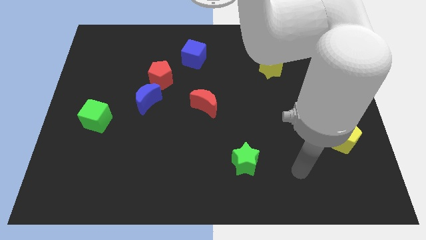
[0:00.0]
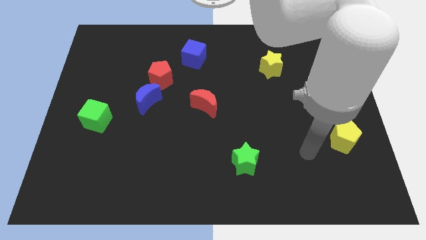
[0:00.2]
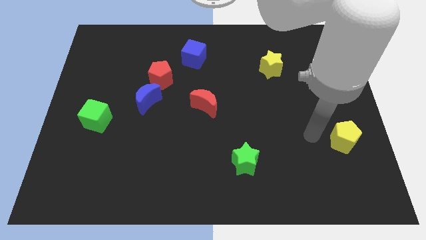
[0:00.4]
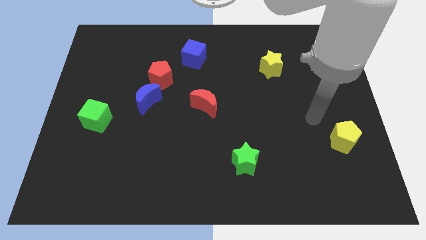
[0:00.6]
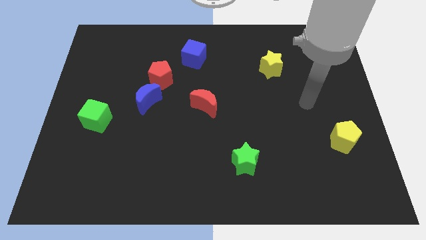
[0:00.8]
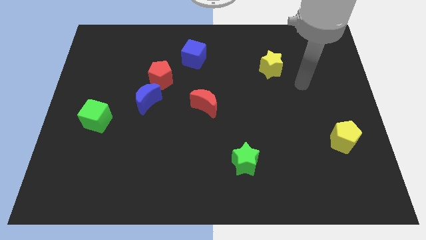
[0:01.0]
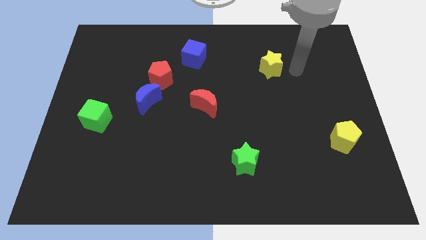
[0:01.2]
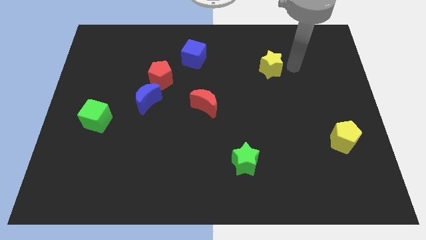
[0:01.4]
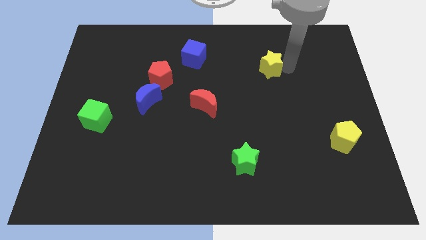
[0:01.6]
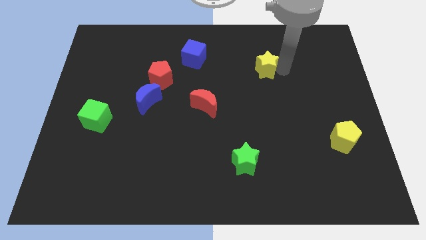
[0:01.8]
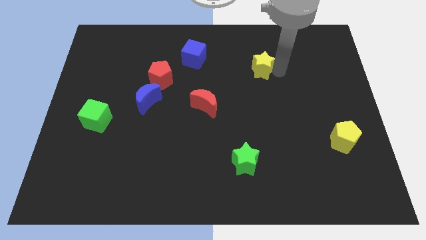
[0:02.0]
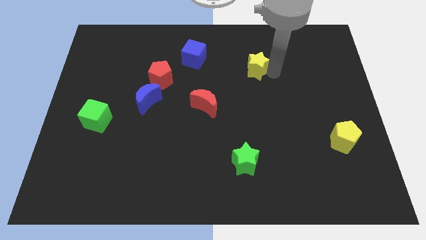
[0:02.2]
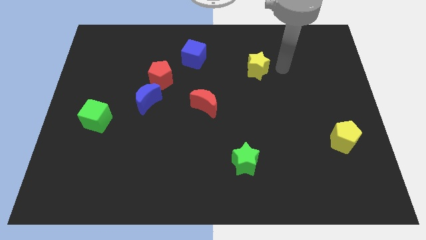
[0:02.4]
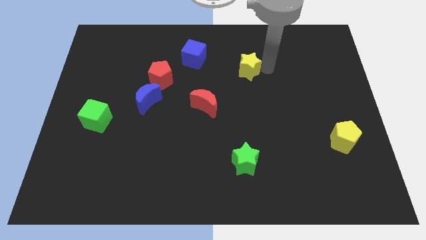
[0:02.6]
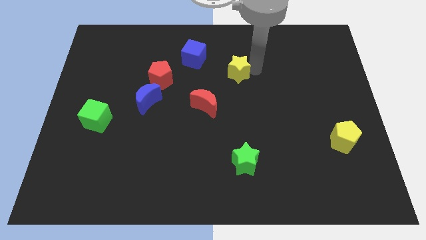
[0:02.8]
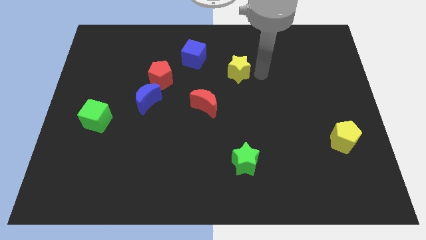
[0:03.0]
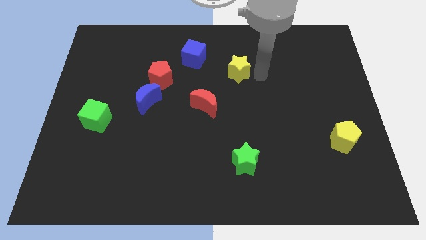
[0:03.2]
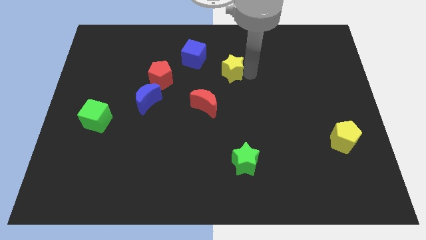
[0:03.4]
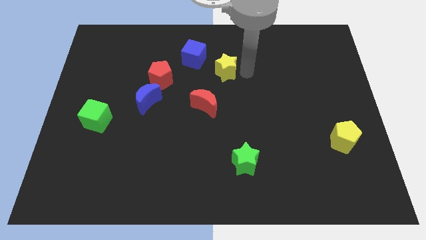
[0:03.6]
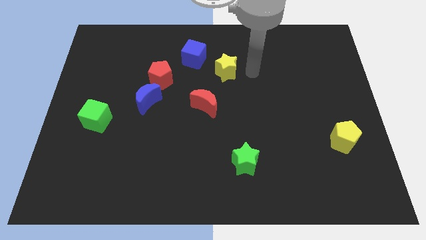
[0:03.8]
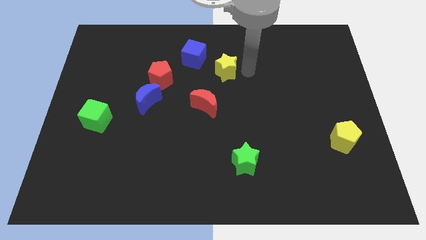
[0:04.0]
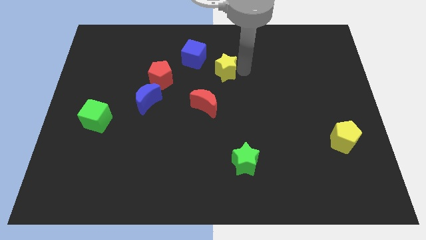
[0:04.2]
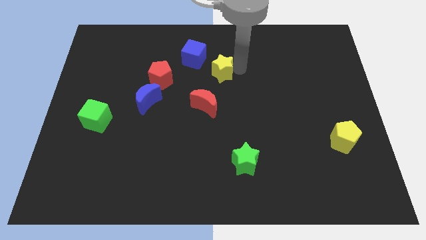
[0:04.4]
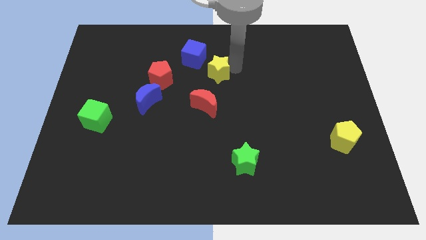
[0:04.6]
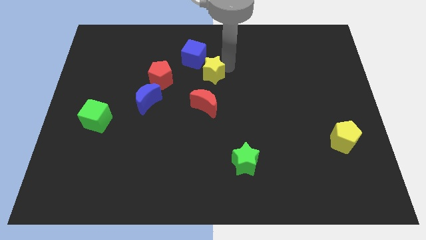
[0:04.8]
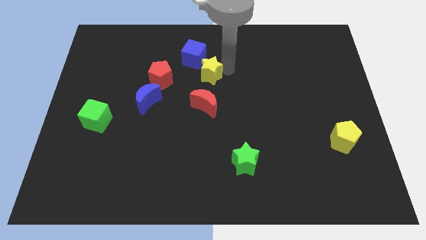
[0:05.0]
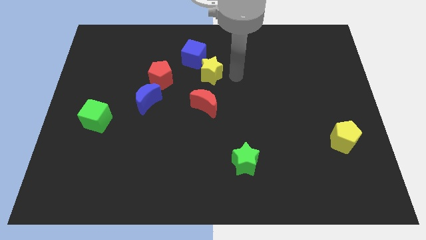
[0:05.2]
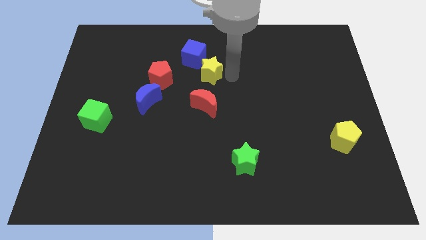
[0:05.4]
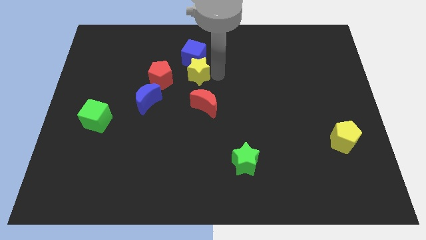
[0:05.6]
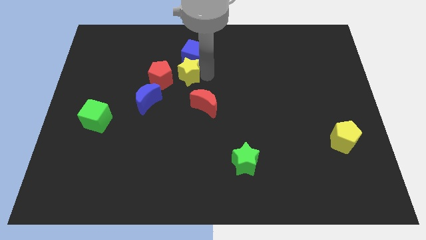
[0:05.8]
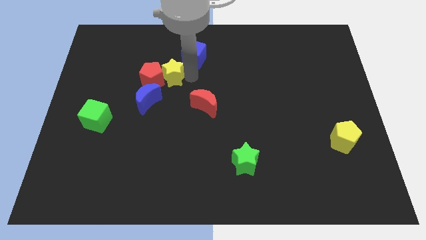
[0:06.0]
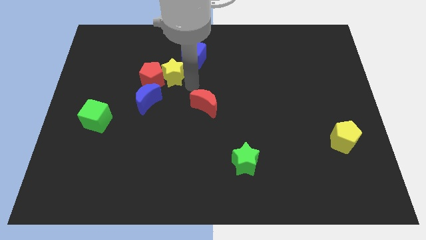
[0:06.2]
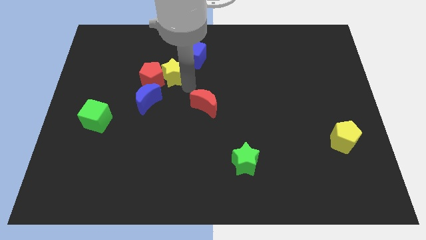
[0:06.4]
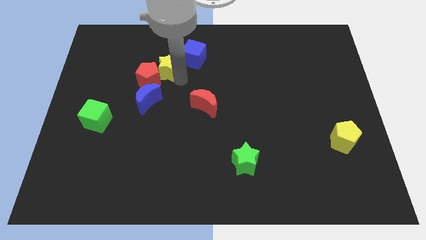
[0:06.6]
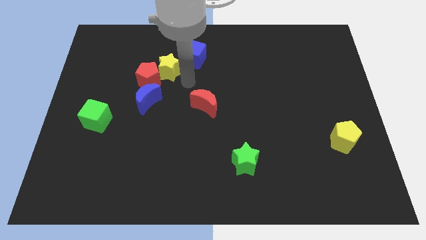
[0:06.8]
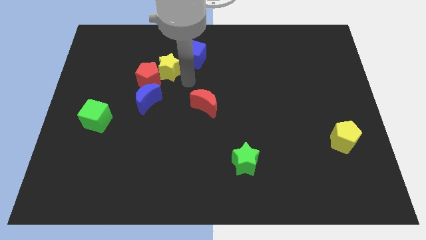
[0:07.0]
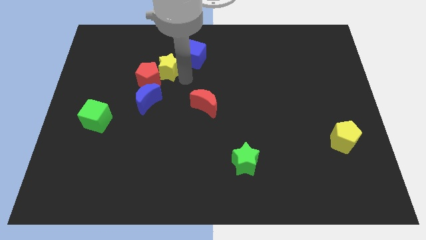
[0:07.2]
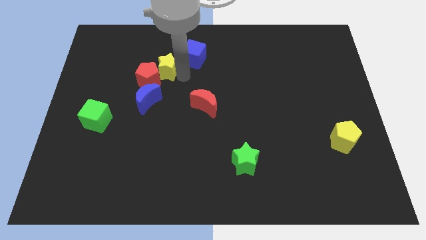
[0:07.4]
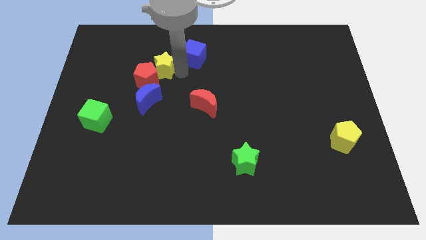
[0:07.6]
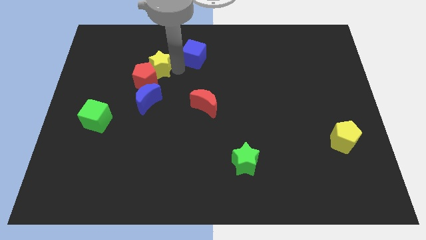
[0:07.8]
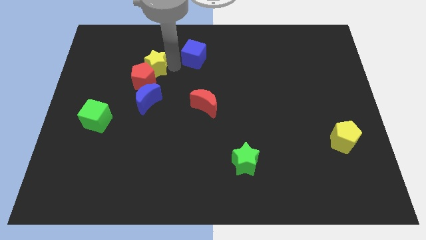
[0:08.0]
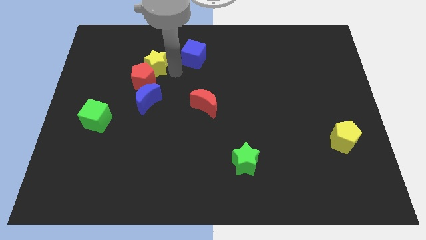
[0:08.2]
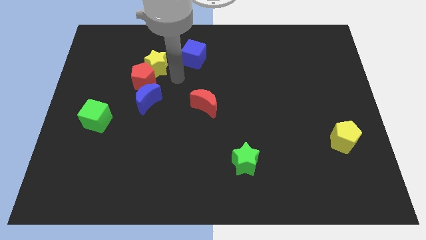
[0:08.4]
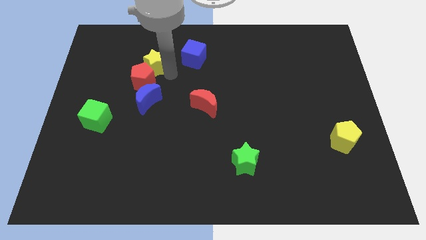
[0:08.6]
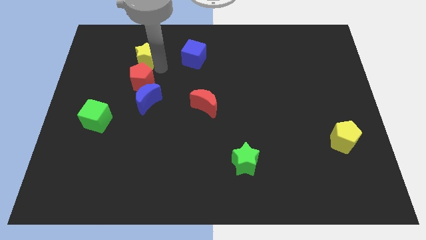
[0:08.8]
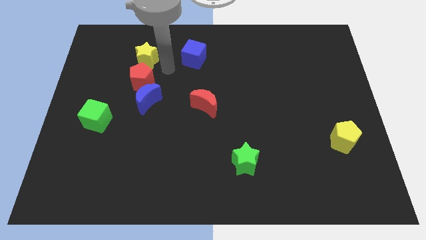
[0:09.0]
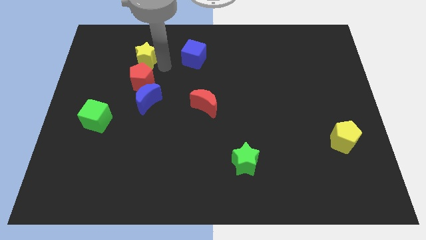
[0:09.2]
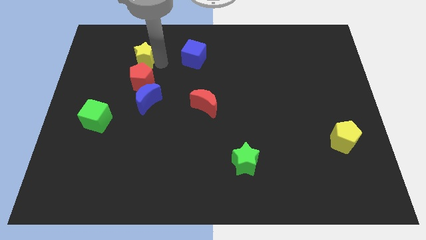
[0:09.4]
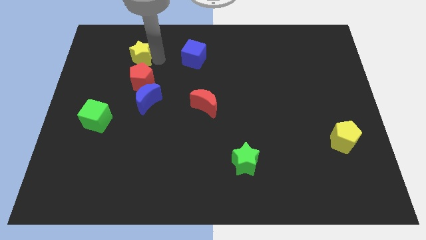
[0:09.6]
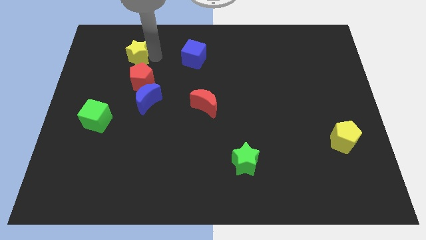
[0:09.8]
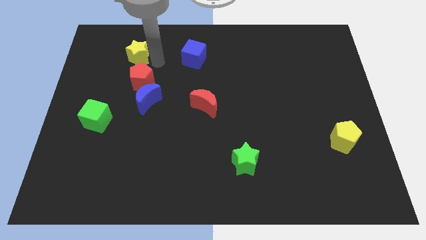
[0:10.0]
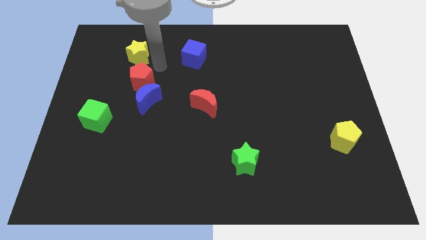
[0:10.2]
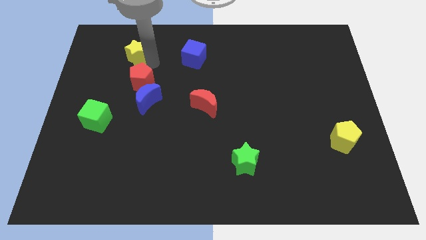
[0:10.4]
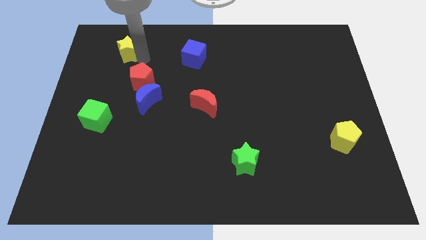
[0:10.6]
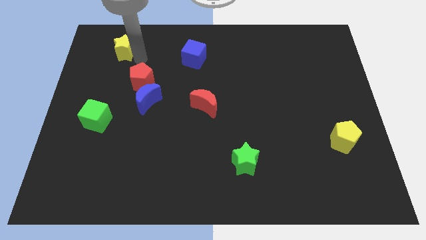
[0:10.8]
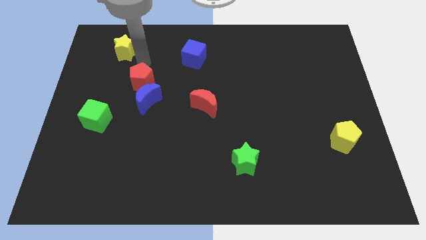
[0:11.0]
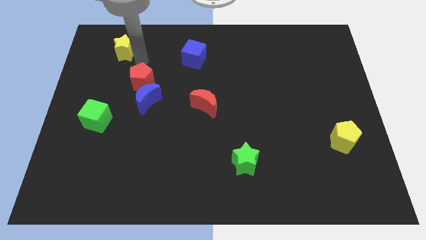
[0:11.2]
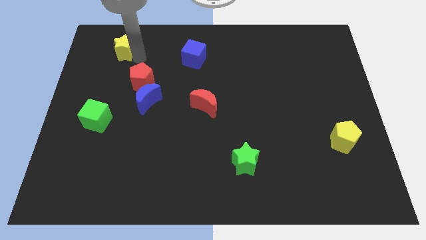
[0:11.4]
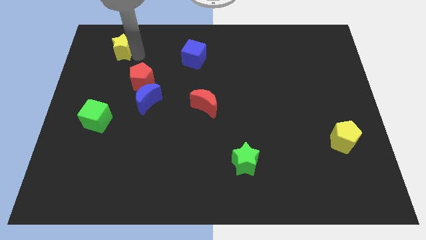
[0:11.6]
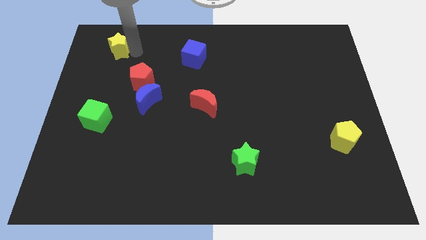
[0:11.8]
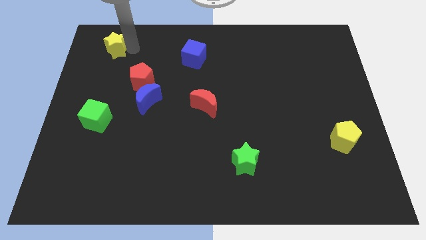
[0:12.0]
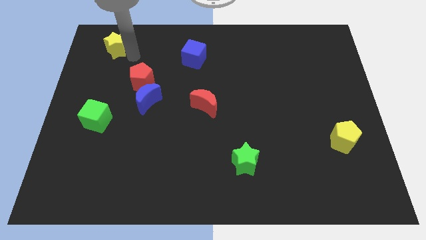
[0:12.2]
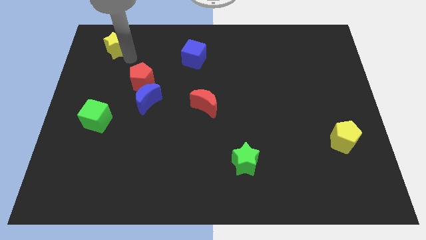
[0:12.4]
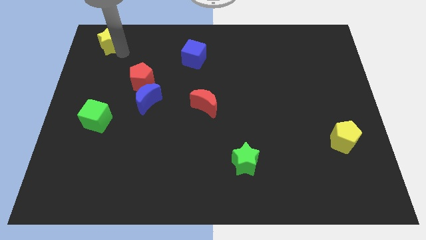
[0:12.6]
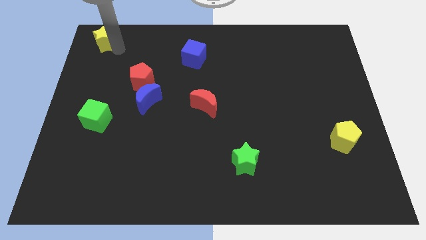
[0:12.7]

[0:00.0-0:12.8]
put the yellow star to the top left of the board
